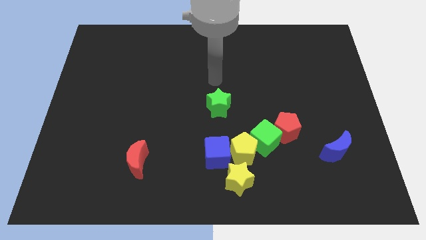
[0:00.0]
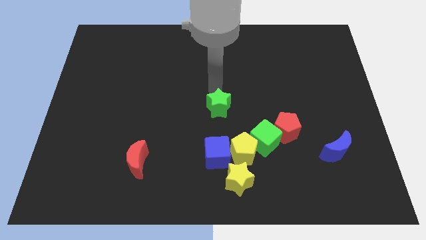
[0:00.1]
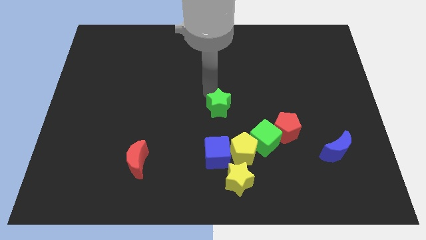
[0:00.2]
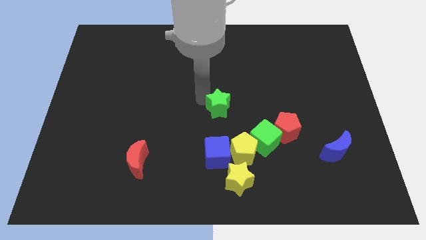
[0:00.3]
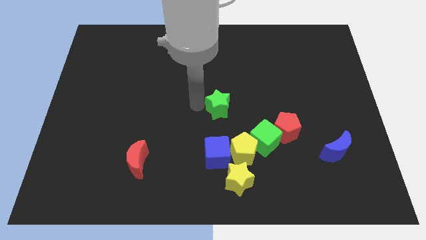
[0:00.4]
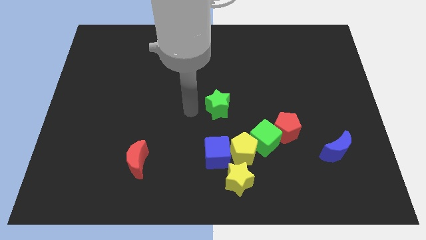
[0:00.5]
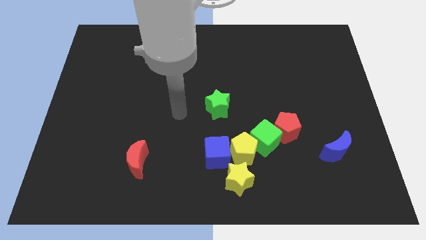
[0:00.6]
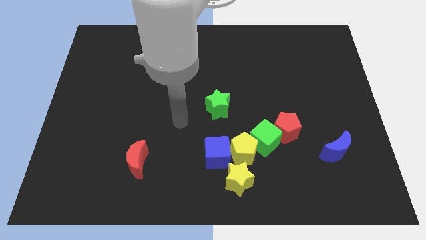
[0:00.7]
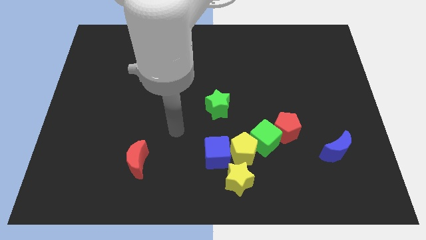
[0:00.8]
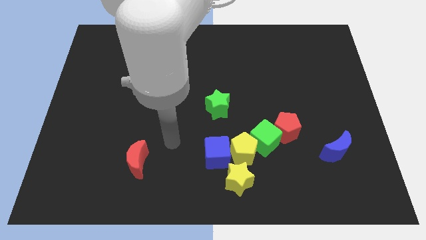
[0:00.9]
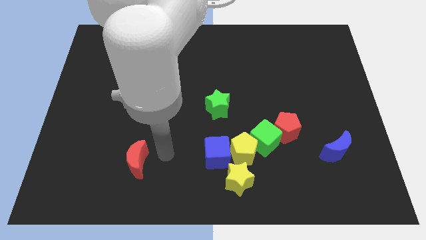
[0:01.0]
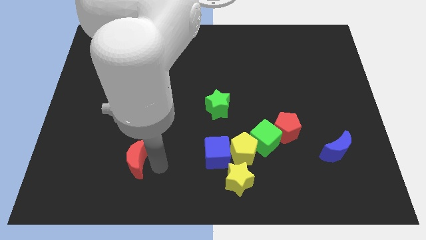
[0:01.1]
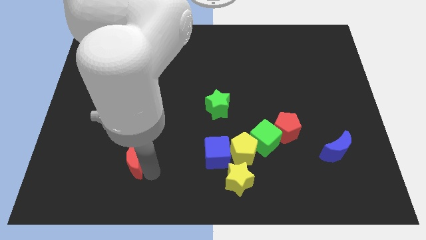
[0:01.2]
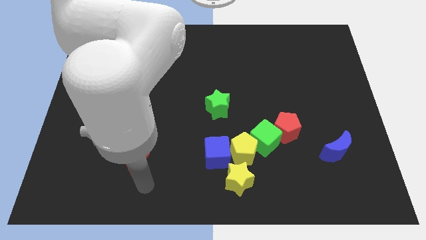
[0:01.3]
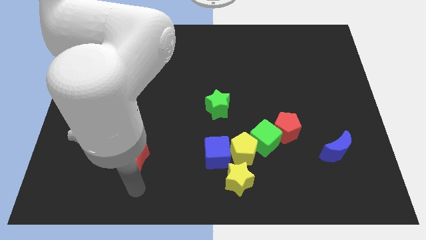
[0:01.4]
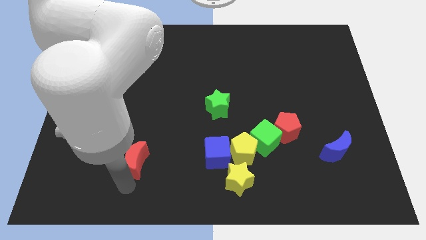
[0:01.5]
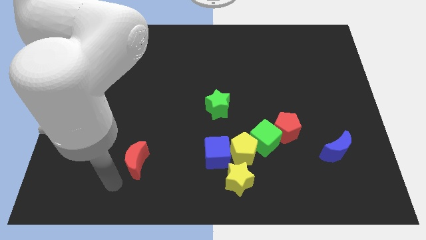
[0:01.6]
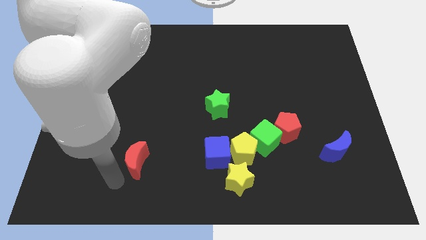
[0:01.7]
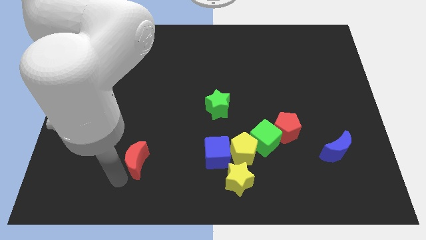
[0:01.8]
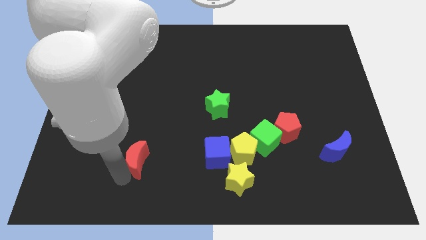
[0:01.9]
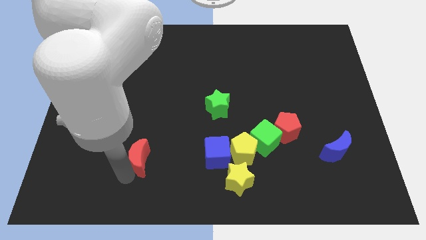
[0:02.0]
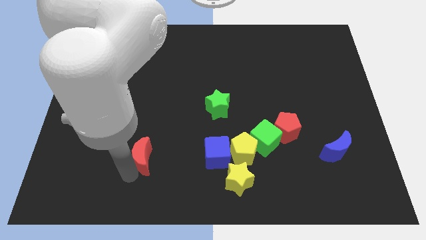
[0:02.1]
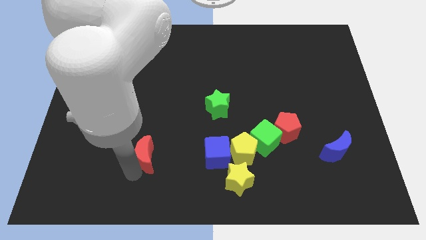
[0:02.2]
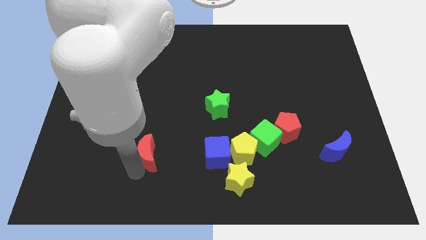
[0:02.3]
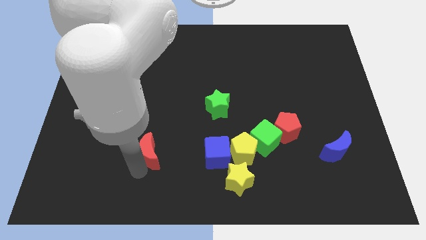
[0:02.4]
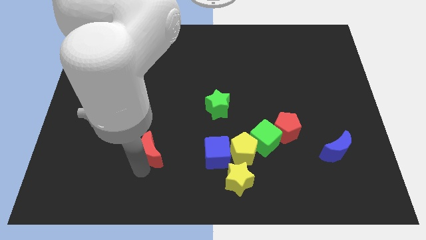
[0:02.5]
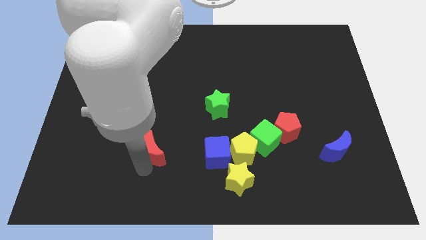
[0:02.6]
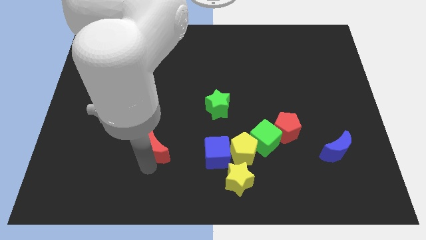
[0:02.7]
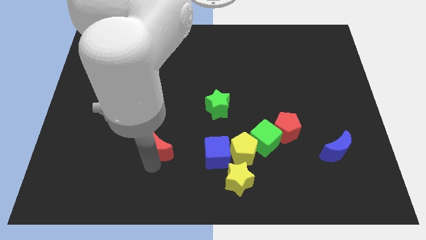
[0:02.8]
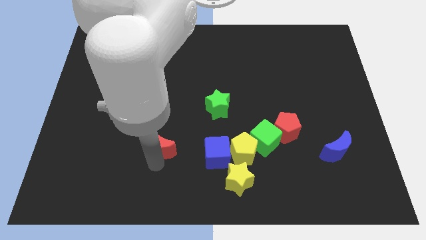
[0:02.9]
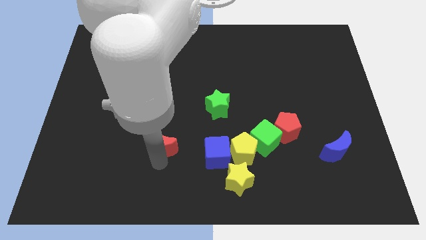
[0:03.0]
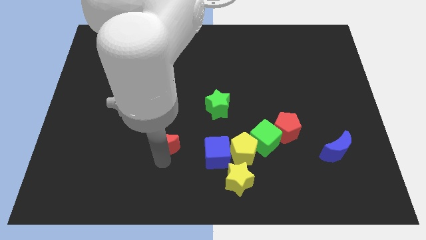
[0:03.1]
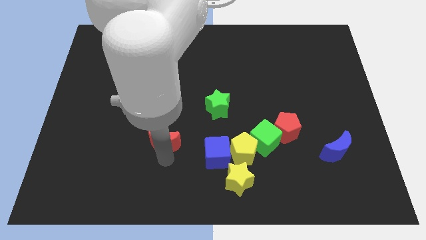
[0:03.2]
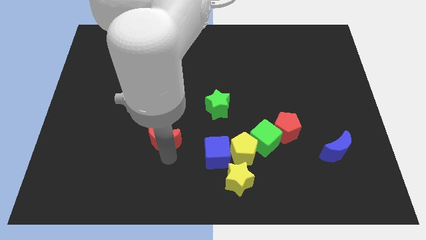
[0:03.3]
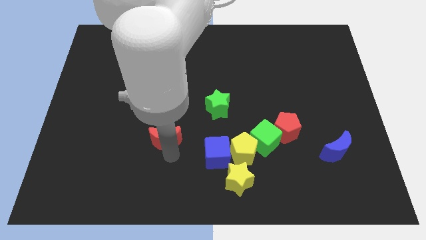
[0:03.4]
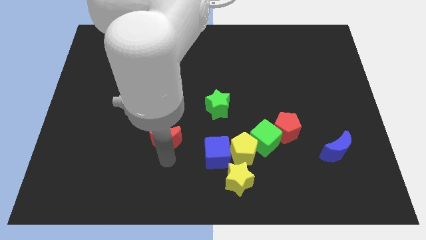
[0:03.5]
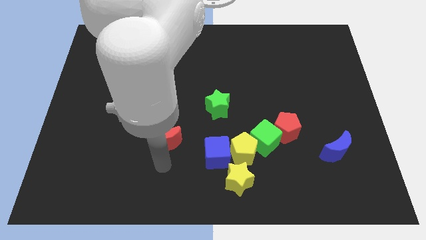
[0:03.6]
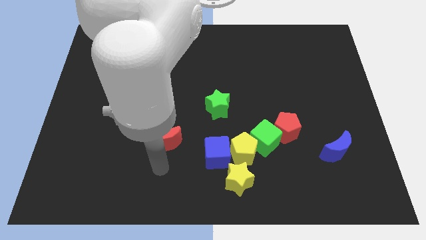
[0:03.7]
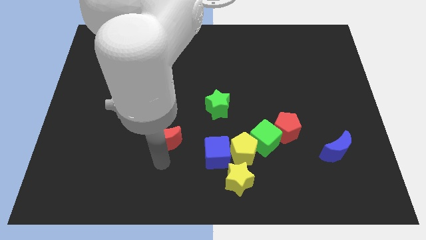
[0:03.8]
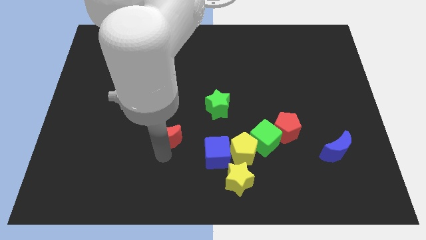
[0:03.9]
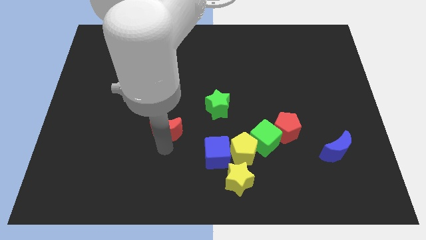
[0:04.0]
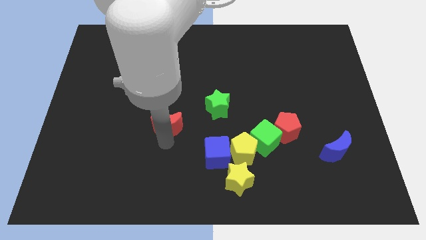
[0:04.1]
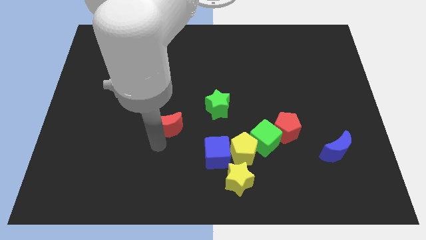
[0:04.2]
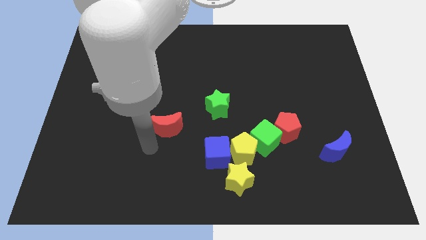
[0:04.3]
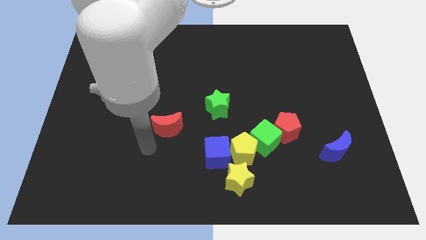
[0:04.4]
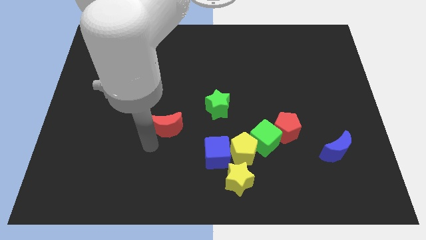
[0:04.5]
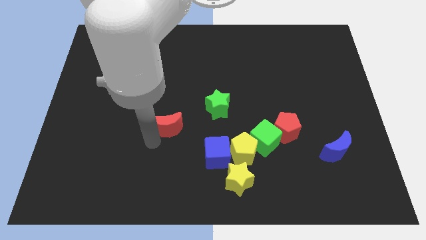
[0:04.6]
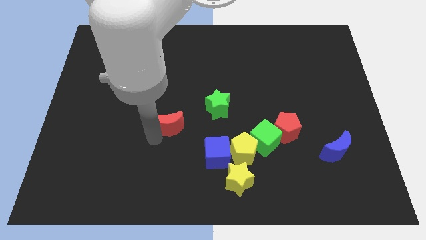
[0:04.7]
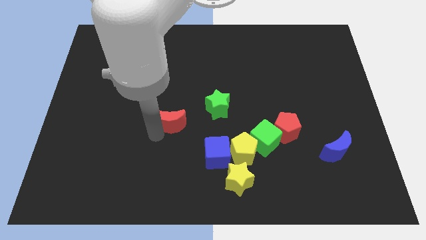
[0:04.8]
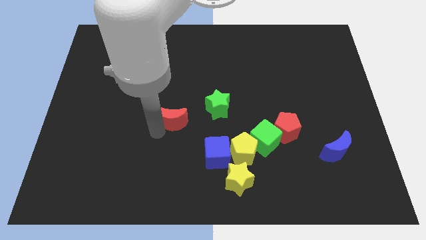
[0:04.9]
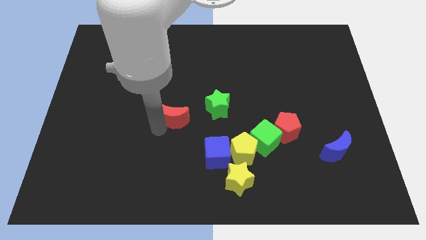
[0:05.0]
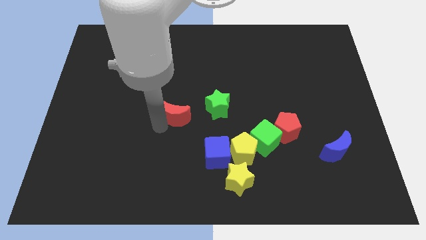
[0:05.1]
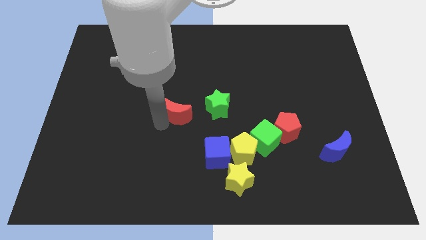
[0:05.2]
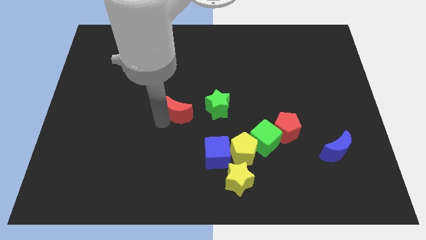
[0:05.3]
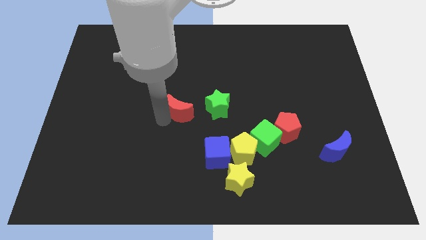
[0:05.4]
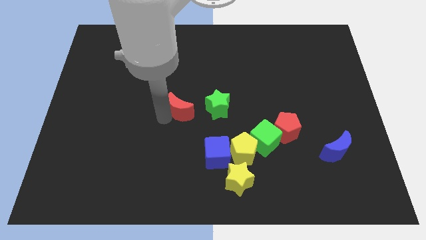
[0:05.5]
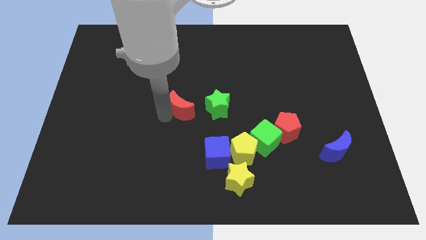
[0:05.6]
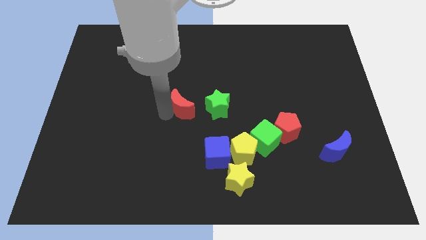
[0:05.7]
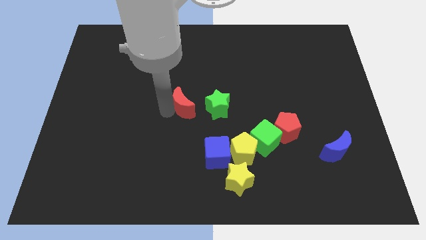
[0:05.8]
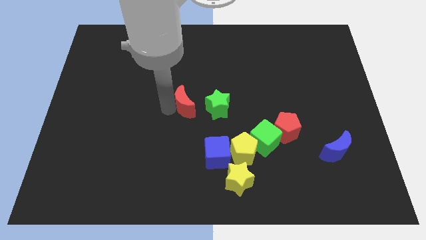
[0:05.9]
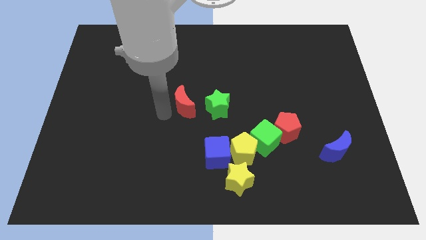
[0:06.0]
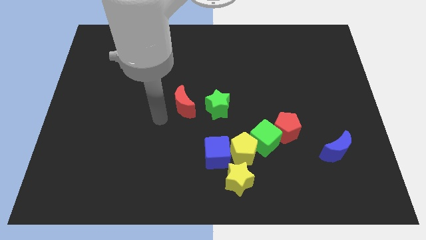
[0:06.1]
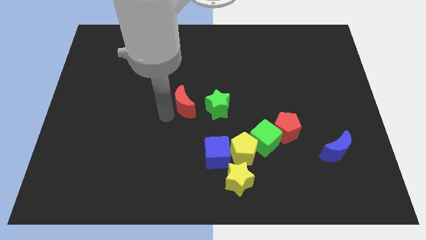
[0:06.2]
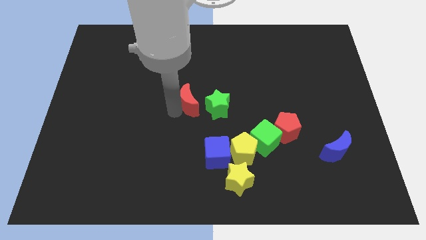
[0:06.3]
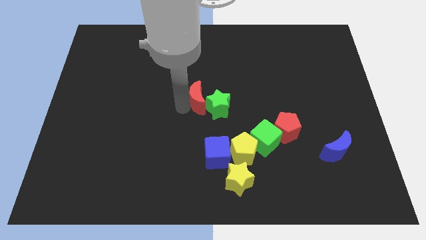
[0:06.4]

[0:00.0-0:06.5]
move the red moon upwards and right

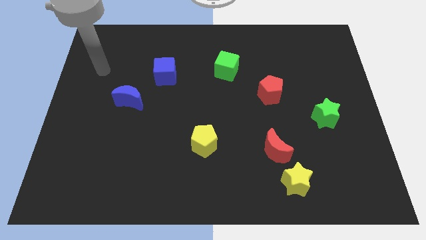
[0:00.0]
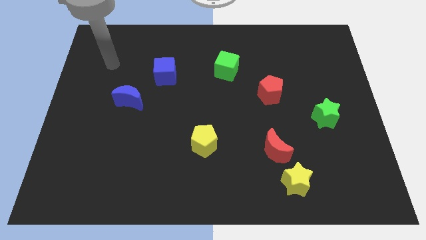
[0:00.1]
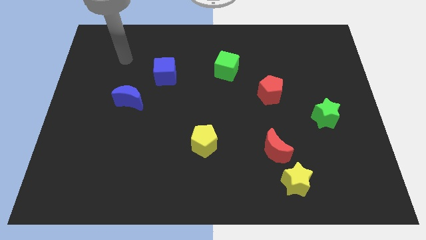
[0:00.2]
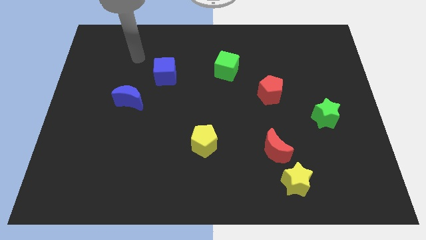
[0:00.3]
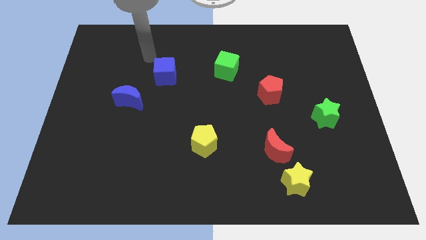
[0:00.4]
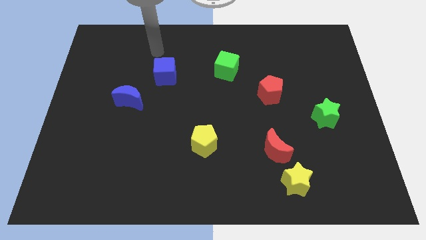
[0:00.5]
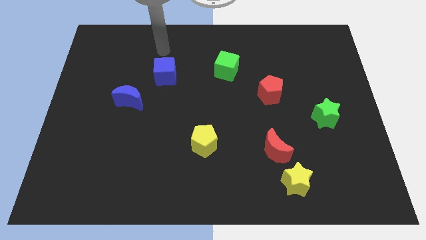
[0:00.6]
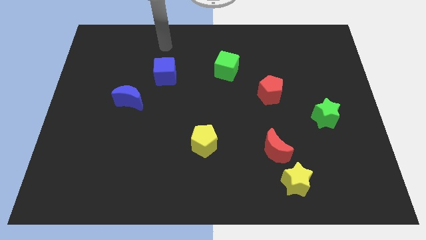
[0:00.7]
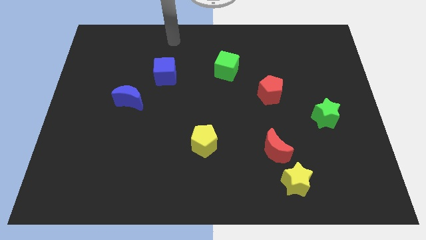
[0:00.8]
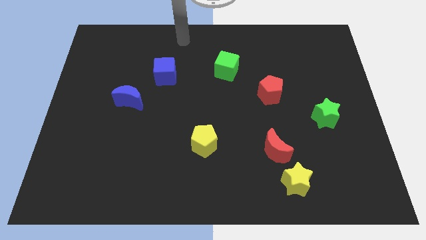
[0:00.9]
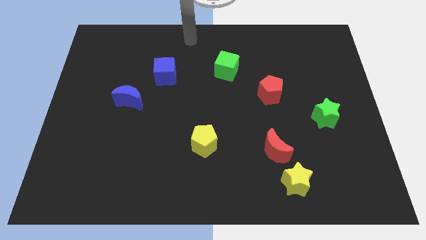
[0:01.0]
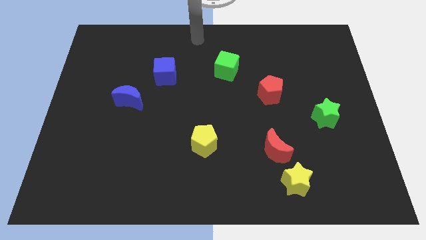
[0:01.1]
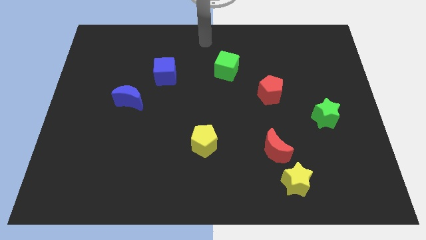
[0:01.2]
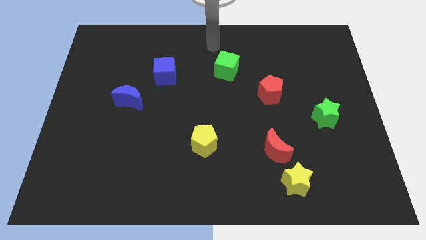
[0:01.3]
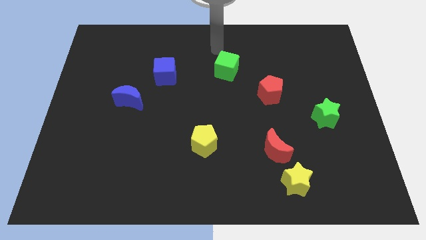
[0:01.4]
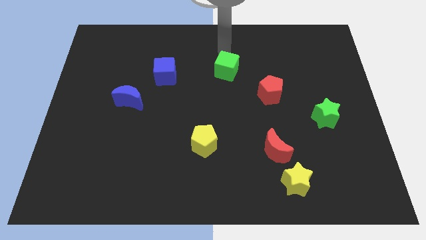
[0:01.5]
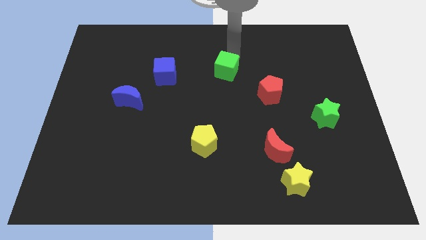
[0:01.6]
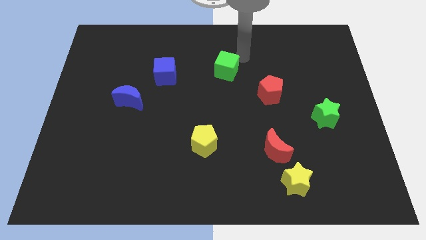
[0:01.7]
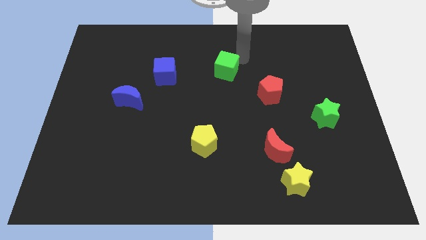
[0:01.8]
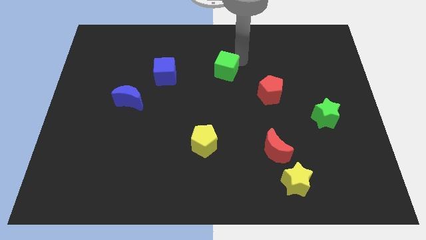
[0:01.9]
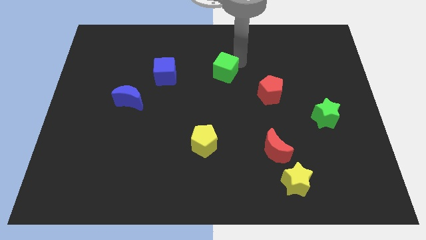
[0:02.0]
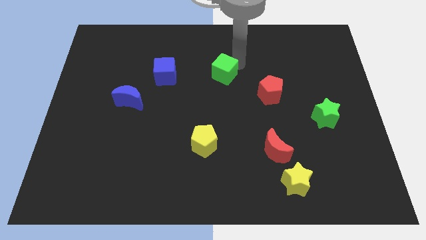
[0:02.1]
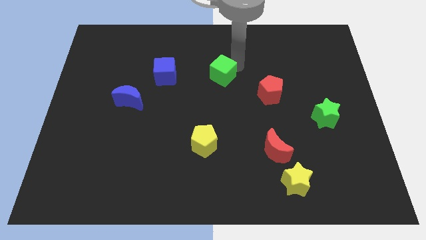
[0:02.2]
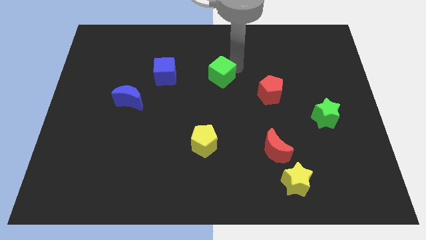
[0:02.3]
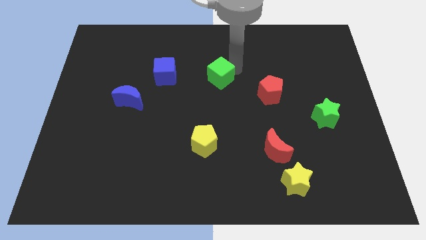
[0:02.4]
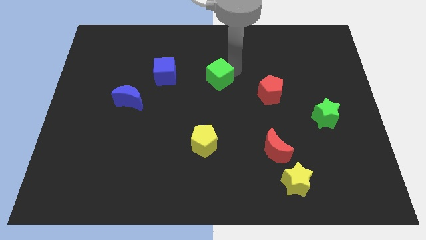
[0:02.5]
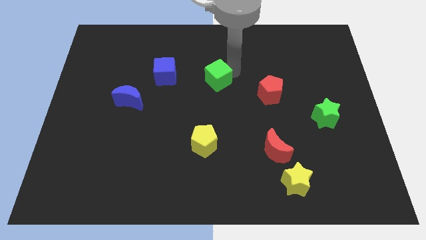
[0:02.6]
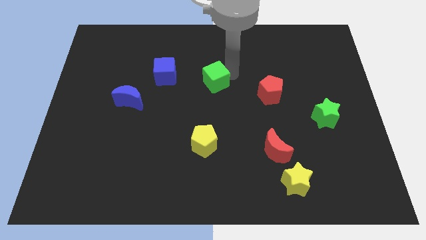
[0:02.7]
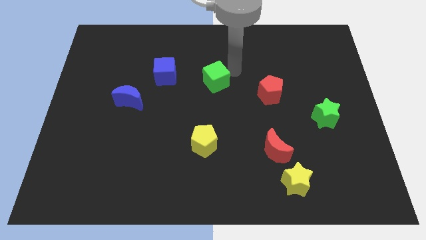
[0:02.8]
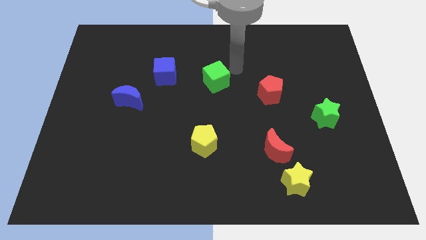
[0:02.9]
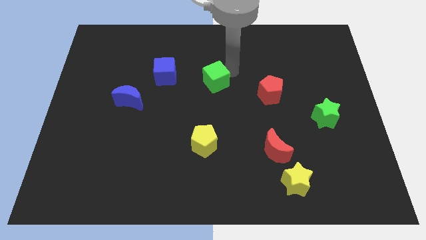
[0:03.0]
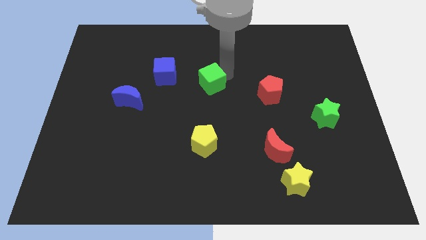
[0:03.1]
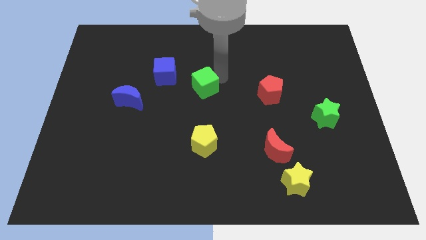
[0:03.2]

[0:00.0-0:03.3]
slightly slide the green cube down and then to the left
